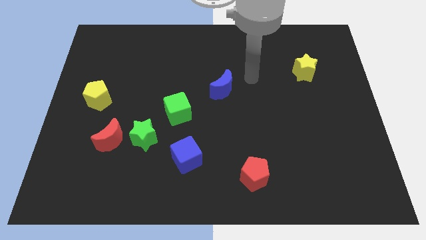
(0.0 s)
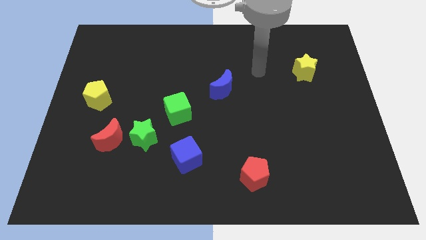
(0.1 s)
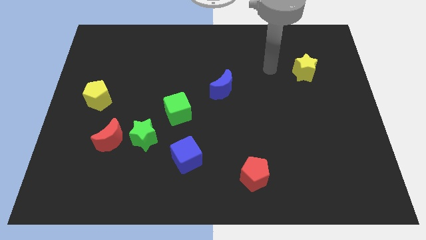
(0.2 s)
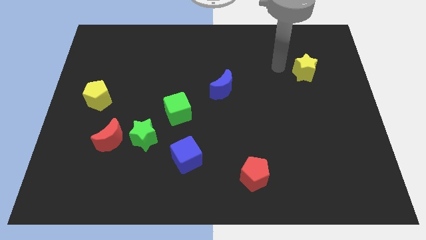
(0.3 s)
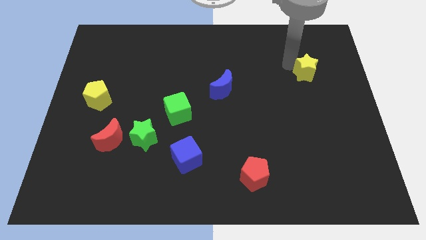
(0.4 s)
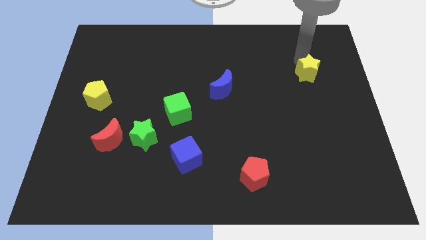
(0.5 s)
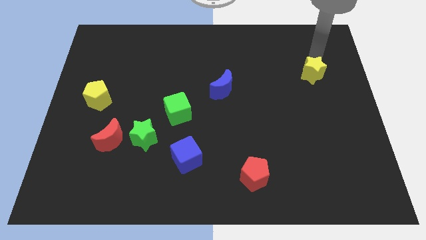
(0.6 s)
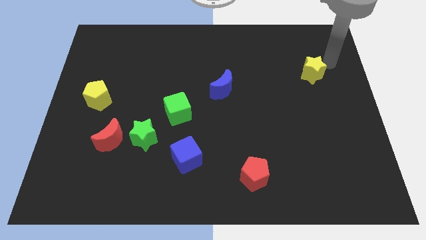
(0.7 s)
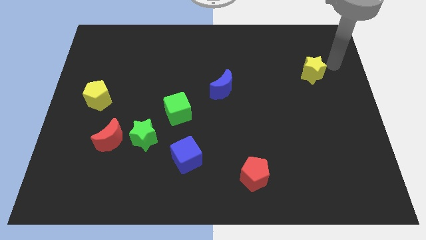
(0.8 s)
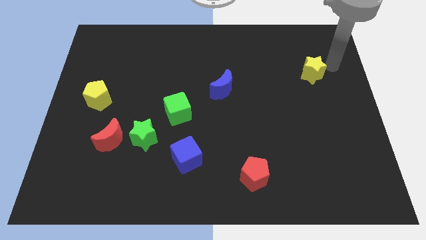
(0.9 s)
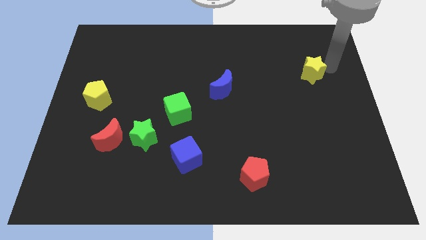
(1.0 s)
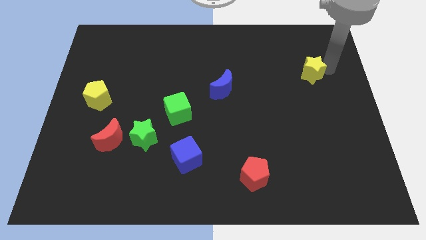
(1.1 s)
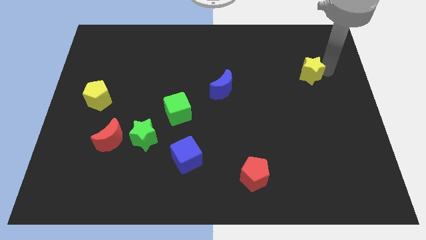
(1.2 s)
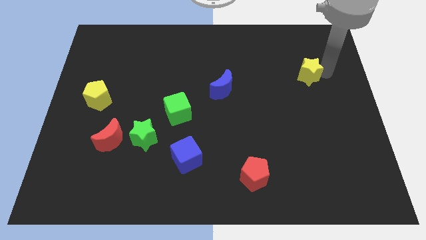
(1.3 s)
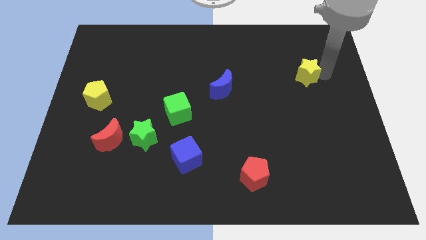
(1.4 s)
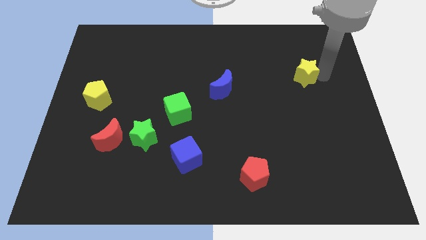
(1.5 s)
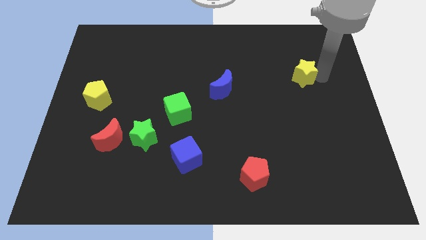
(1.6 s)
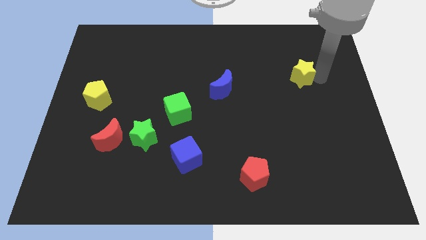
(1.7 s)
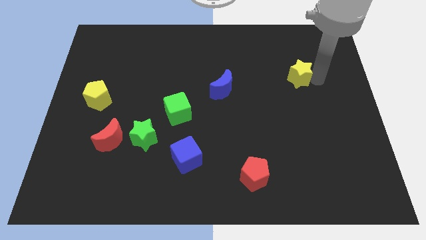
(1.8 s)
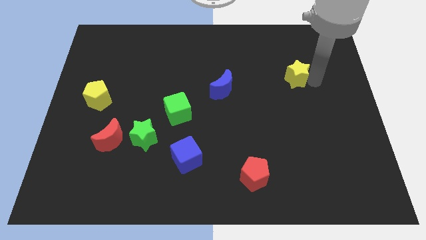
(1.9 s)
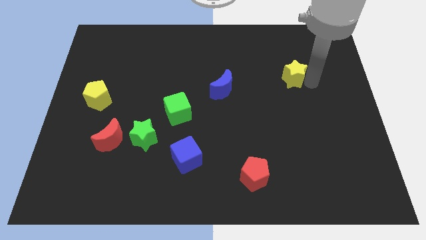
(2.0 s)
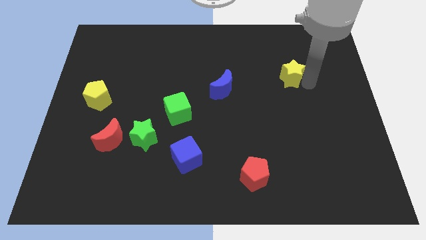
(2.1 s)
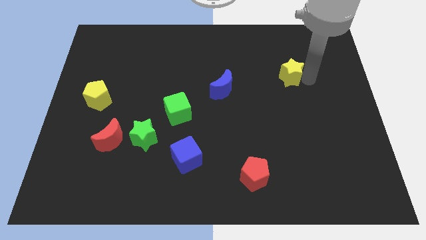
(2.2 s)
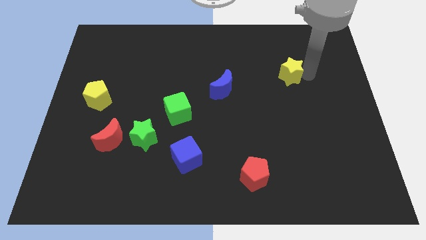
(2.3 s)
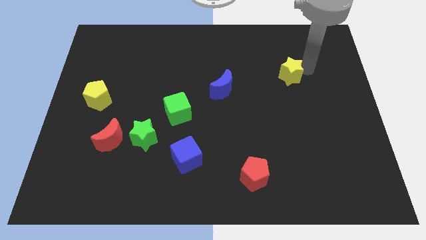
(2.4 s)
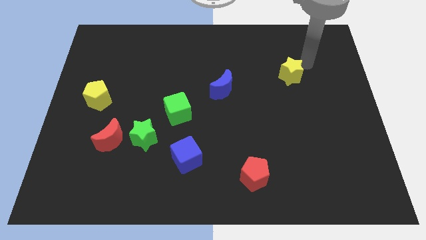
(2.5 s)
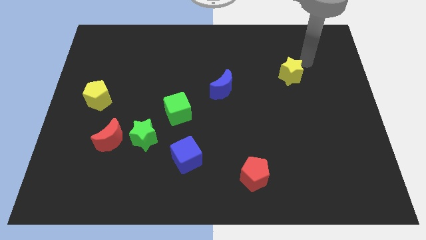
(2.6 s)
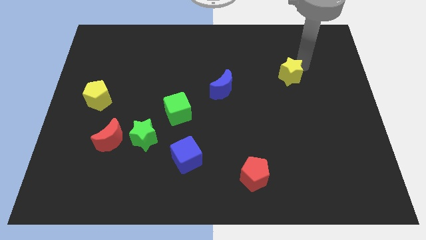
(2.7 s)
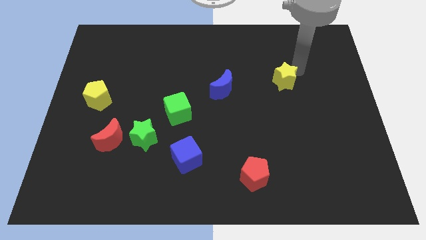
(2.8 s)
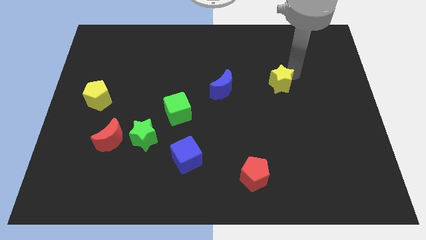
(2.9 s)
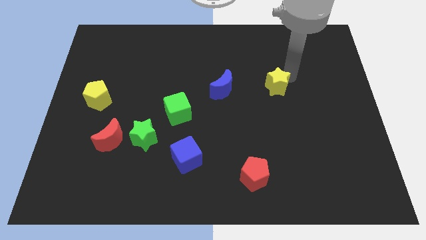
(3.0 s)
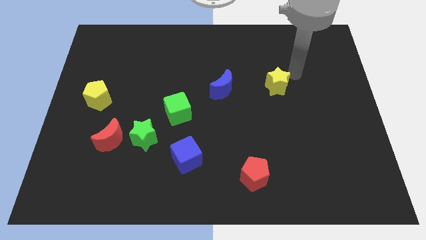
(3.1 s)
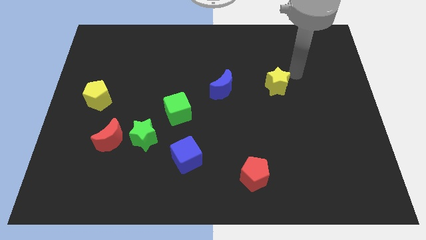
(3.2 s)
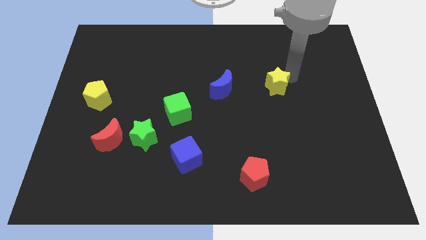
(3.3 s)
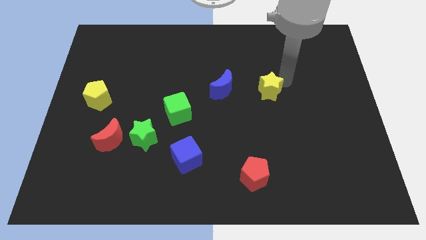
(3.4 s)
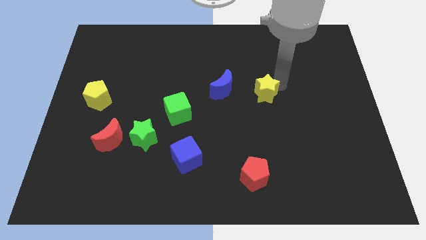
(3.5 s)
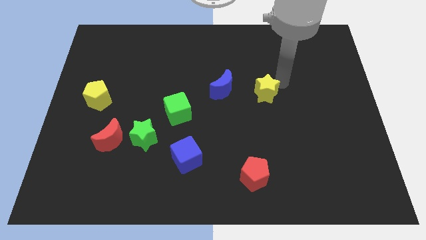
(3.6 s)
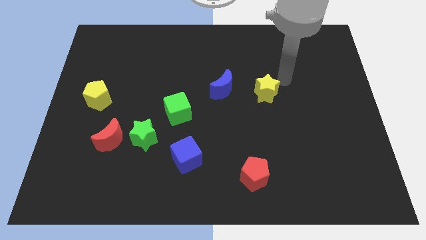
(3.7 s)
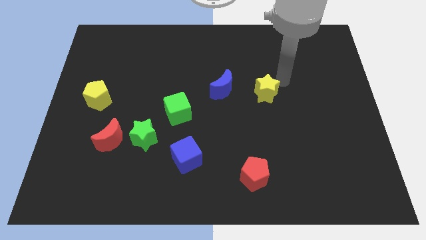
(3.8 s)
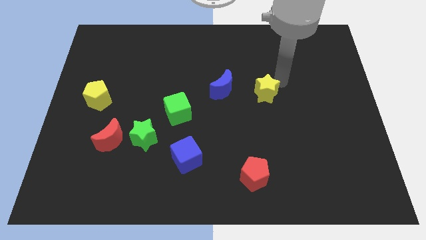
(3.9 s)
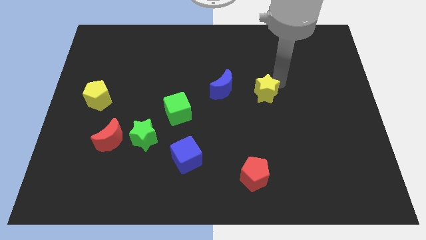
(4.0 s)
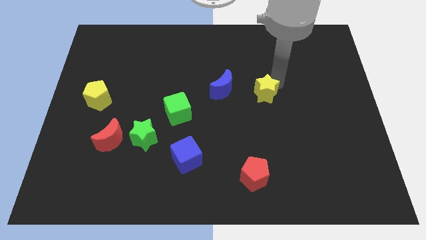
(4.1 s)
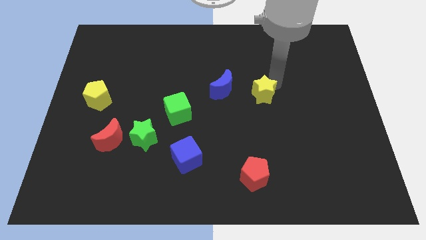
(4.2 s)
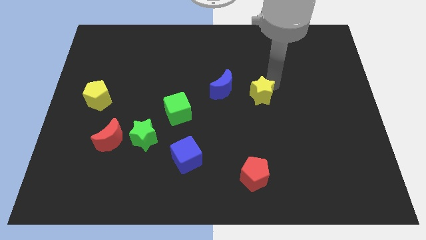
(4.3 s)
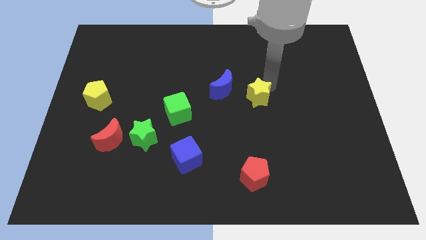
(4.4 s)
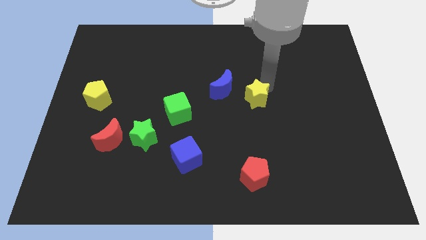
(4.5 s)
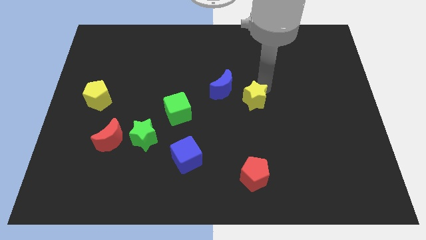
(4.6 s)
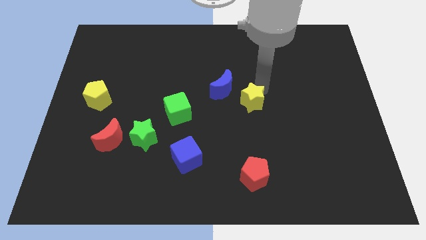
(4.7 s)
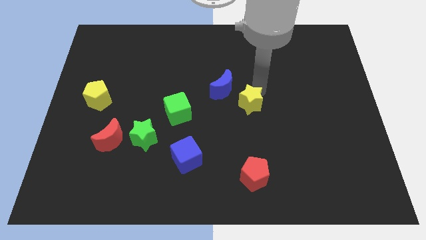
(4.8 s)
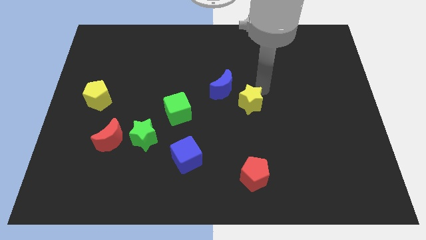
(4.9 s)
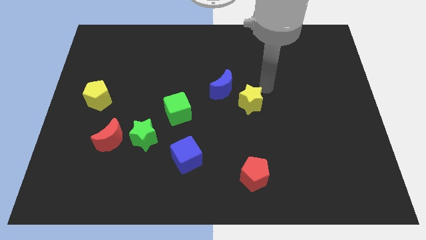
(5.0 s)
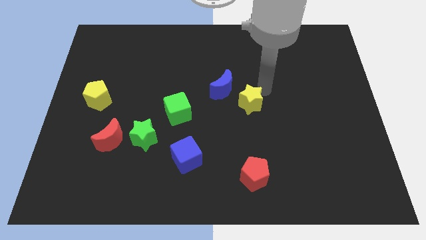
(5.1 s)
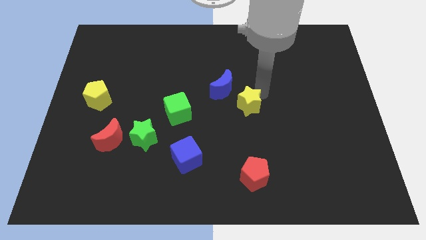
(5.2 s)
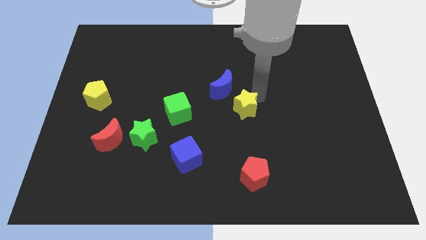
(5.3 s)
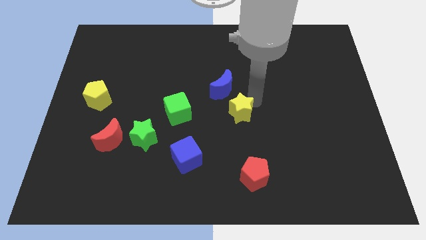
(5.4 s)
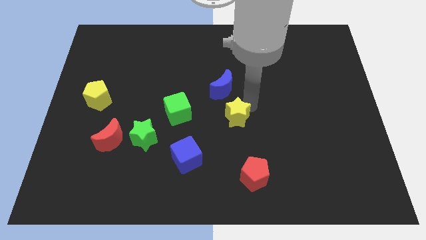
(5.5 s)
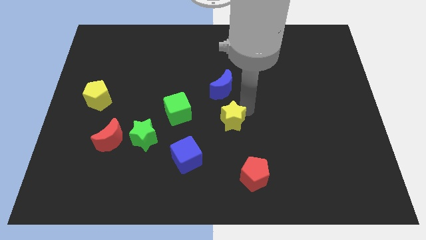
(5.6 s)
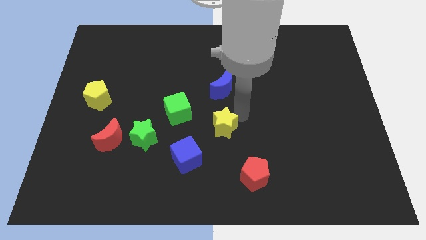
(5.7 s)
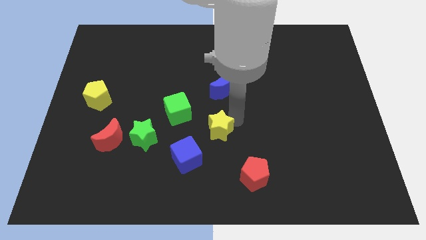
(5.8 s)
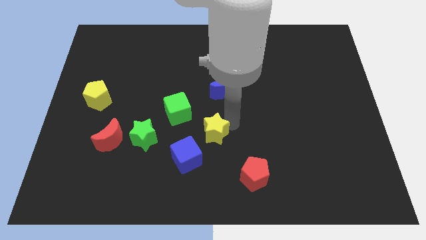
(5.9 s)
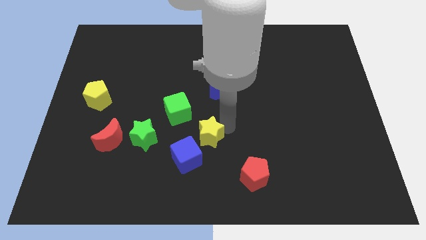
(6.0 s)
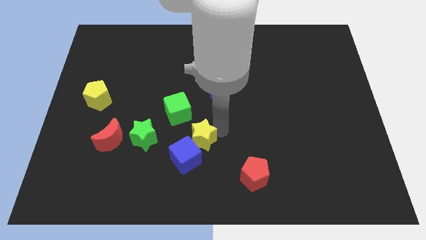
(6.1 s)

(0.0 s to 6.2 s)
slide the yellow star close to the blue cube

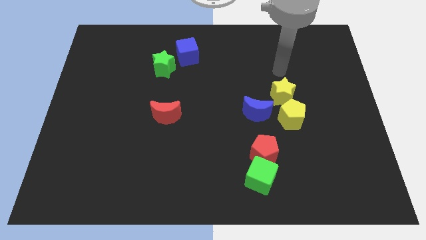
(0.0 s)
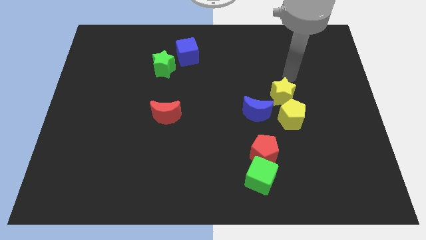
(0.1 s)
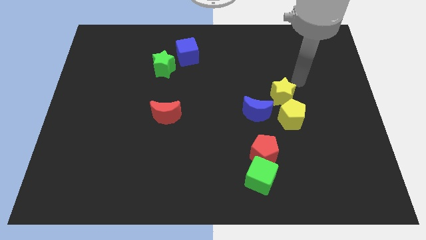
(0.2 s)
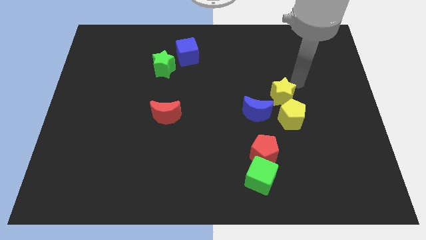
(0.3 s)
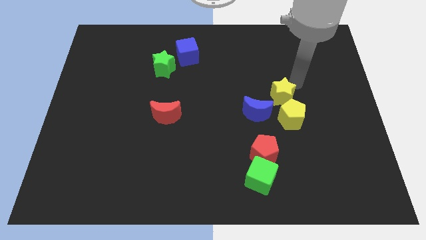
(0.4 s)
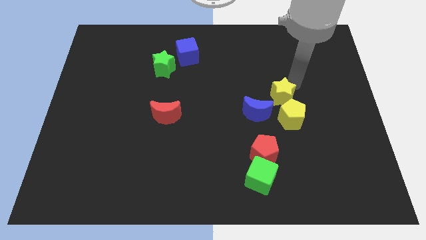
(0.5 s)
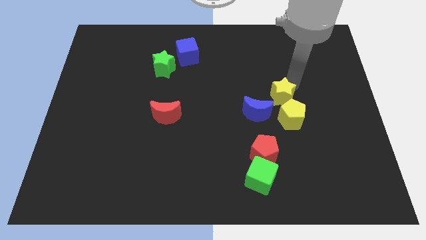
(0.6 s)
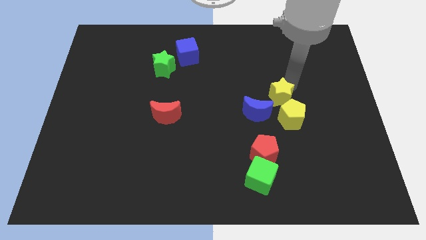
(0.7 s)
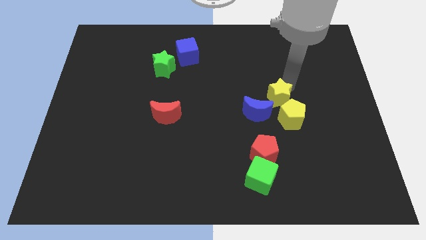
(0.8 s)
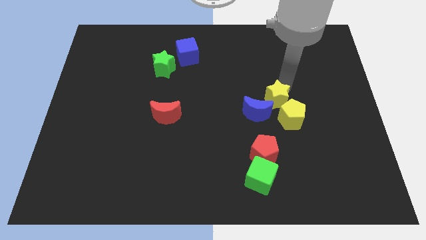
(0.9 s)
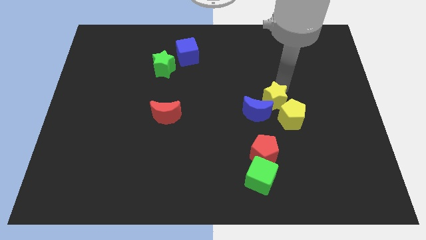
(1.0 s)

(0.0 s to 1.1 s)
slide the yellow star towards the blue moon

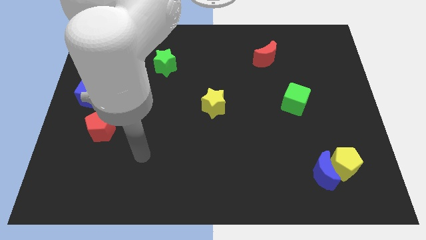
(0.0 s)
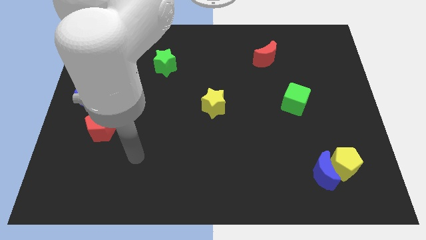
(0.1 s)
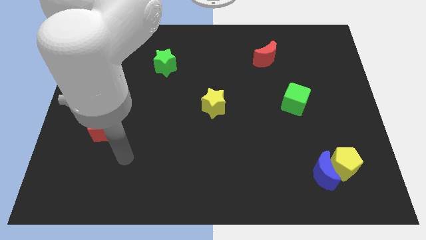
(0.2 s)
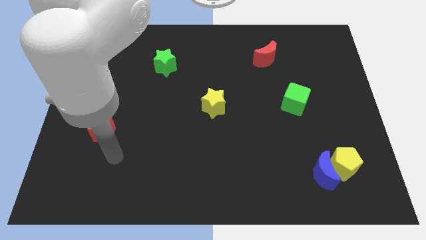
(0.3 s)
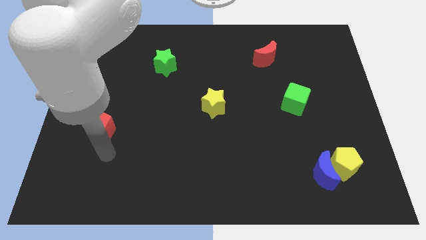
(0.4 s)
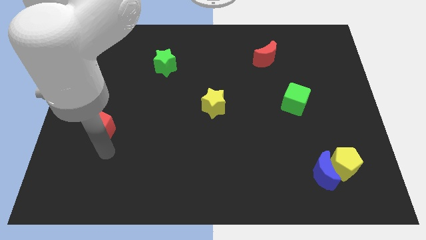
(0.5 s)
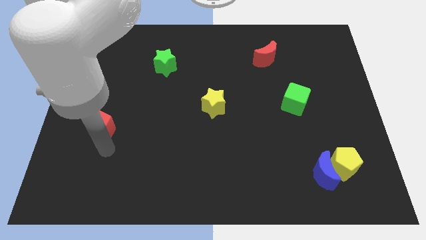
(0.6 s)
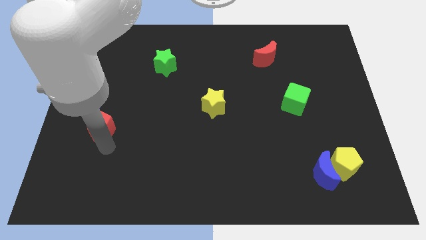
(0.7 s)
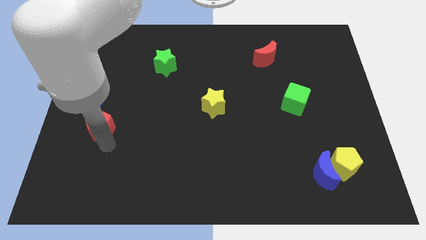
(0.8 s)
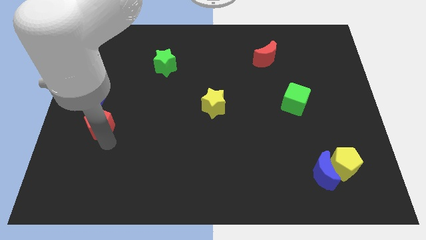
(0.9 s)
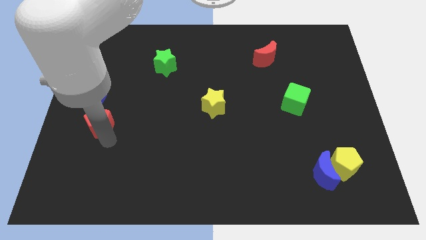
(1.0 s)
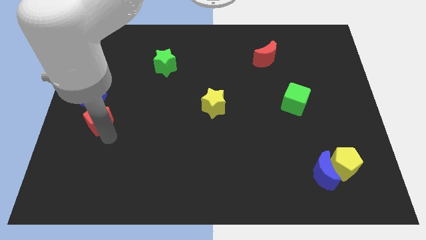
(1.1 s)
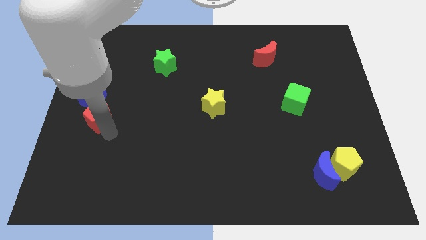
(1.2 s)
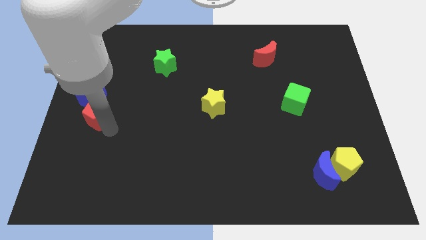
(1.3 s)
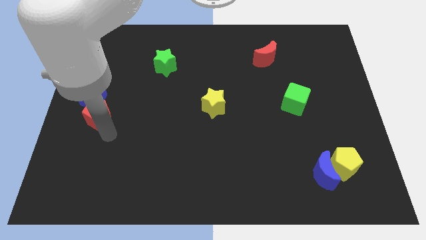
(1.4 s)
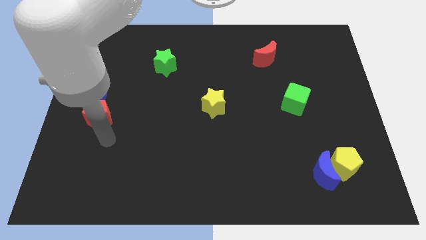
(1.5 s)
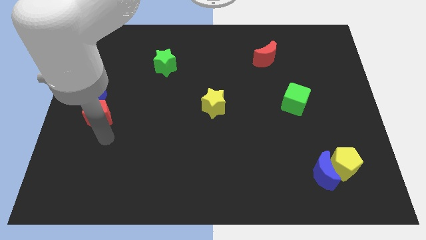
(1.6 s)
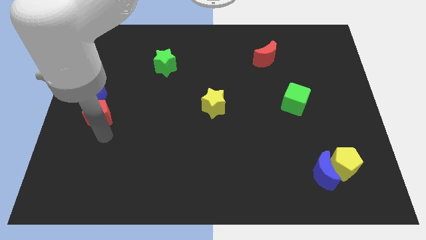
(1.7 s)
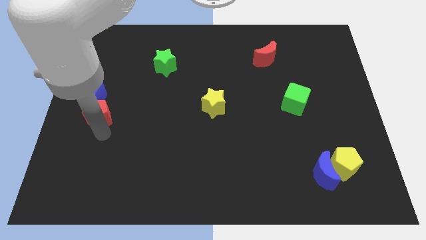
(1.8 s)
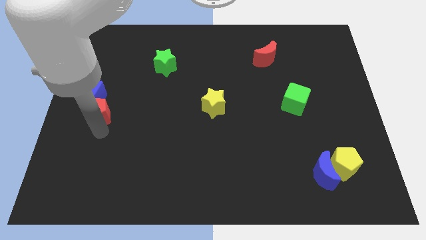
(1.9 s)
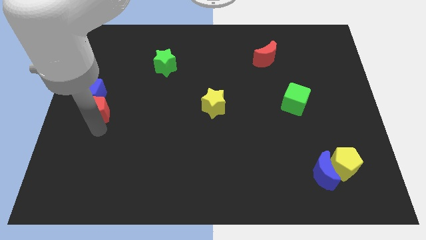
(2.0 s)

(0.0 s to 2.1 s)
push the red pentagon to the blue cube
